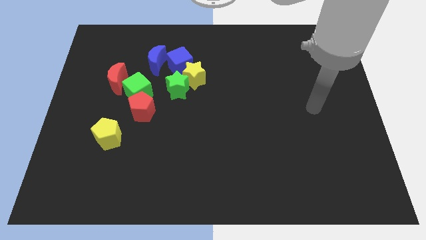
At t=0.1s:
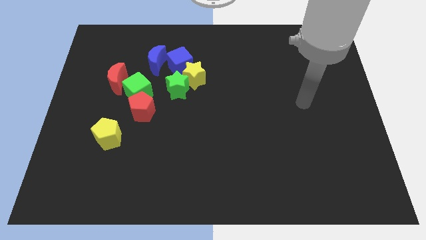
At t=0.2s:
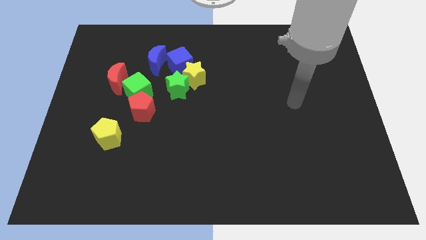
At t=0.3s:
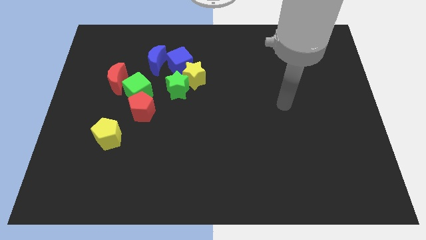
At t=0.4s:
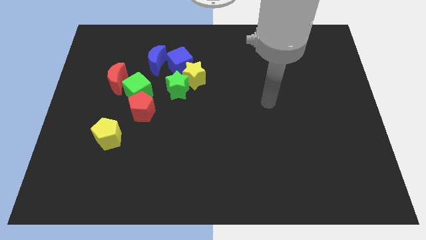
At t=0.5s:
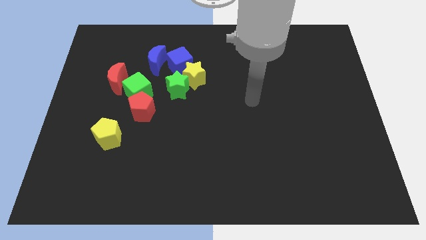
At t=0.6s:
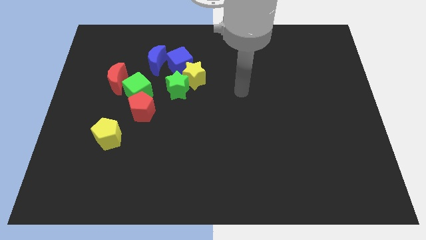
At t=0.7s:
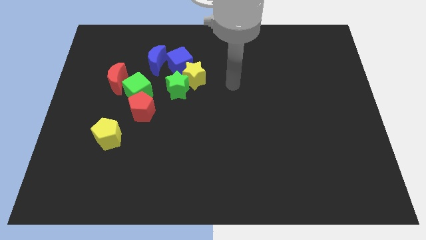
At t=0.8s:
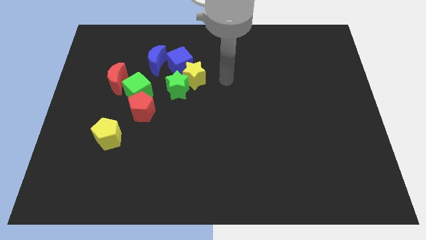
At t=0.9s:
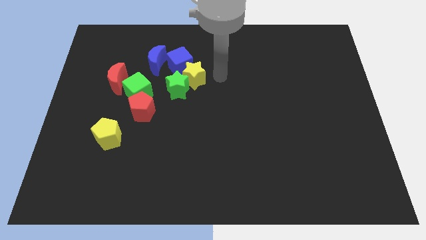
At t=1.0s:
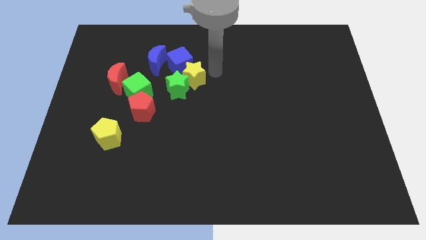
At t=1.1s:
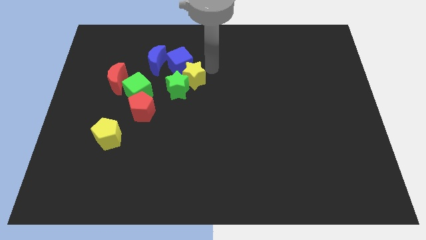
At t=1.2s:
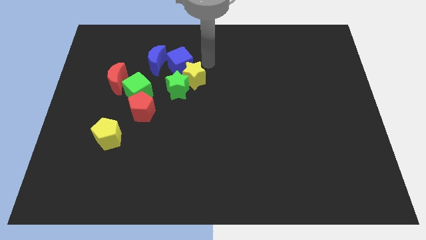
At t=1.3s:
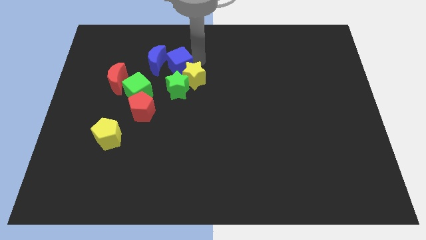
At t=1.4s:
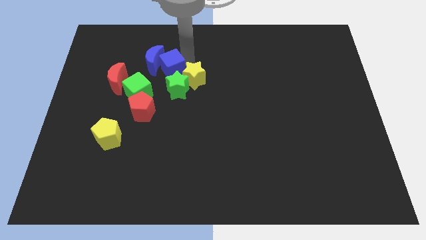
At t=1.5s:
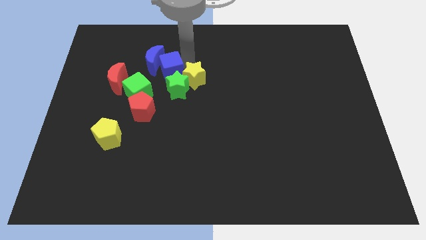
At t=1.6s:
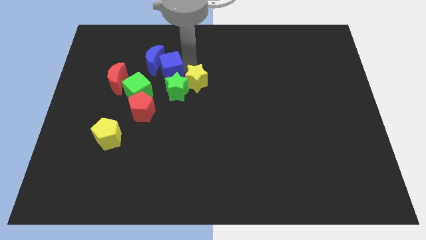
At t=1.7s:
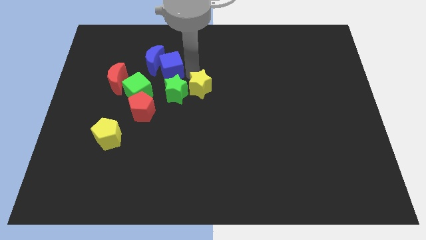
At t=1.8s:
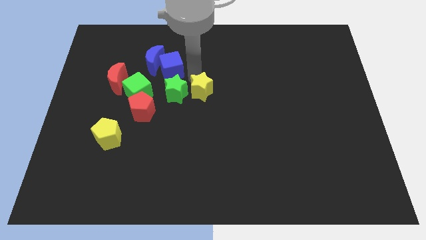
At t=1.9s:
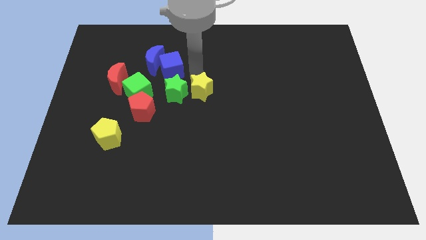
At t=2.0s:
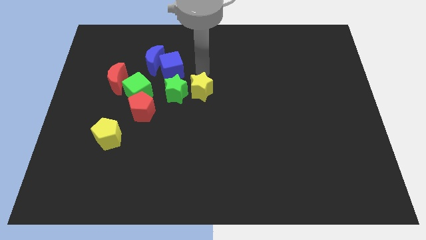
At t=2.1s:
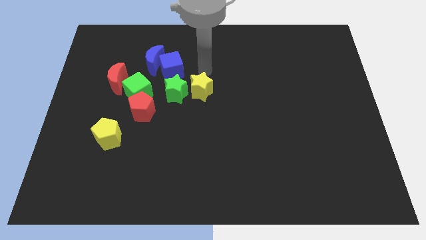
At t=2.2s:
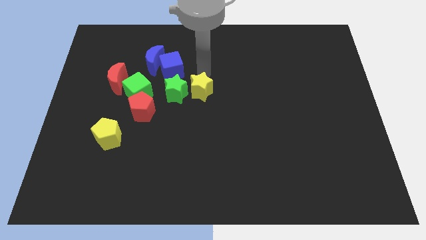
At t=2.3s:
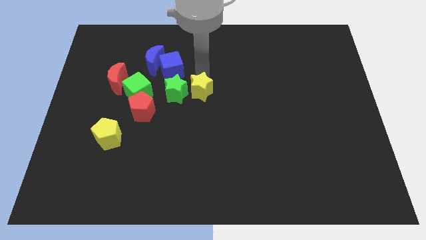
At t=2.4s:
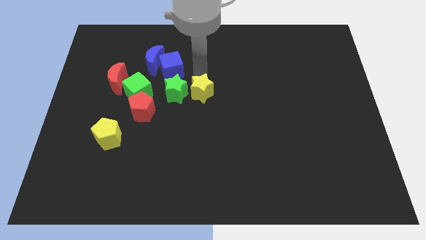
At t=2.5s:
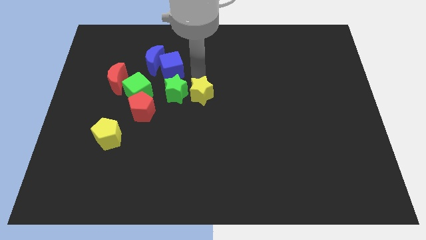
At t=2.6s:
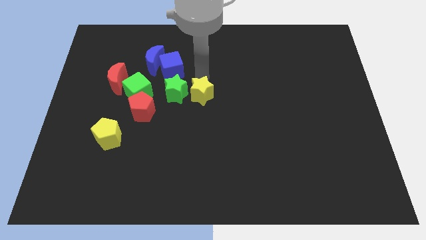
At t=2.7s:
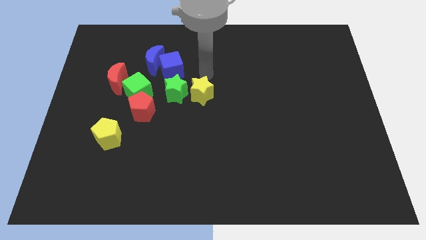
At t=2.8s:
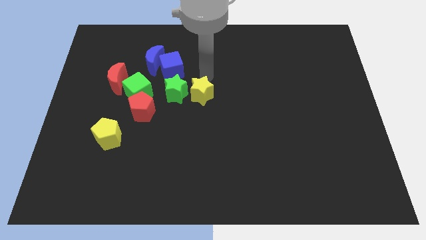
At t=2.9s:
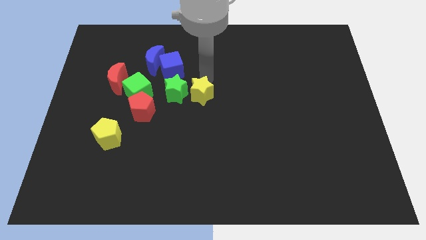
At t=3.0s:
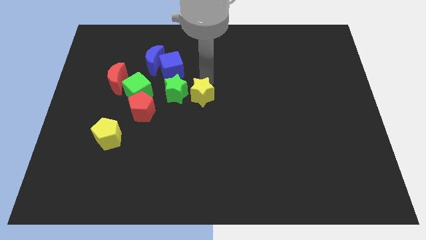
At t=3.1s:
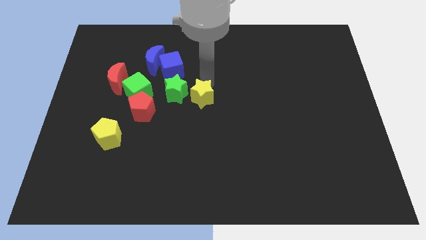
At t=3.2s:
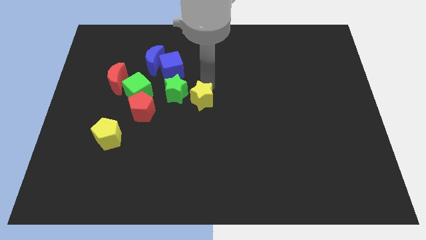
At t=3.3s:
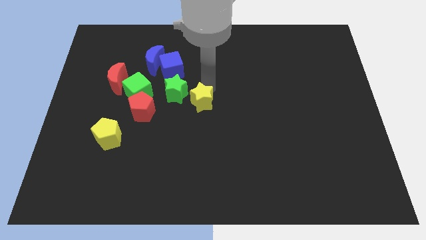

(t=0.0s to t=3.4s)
push the yellow star a little downwards

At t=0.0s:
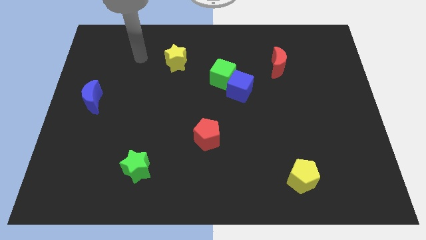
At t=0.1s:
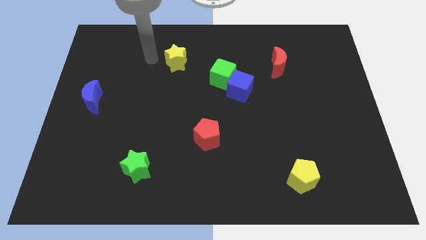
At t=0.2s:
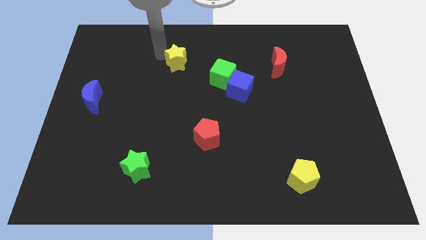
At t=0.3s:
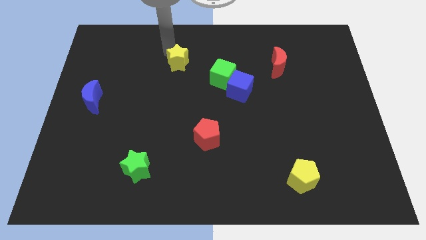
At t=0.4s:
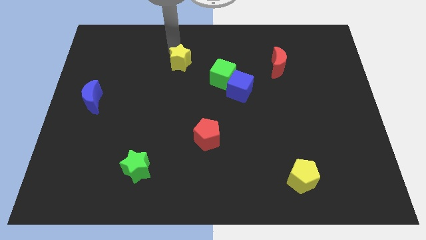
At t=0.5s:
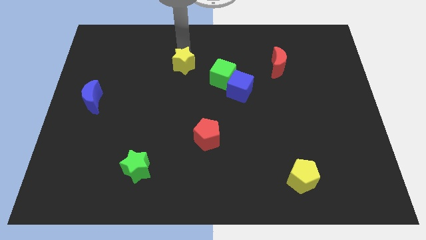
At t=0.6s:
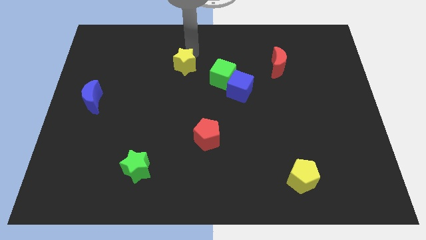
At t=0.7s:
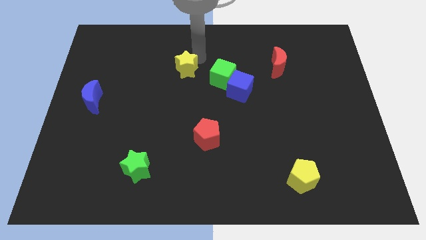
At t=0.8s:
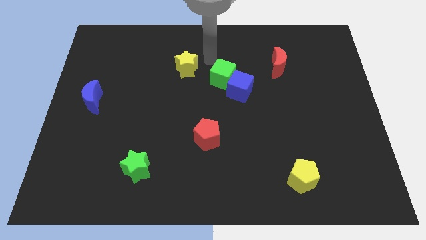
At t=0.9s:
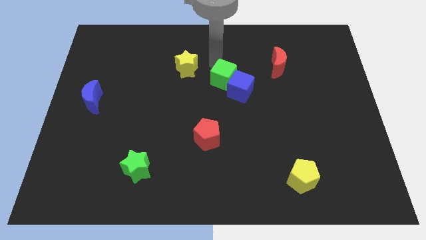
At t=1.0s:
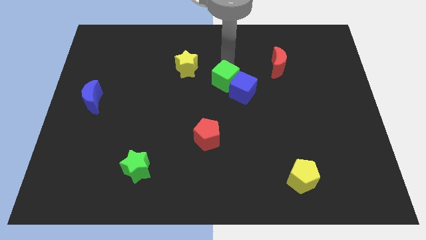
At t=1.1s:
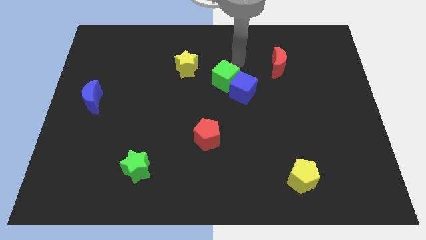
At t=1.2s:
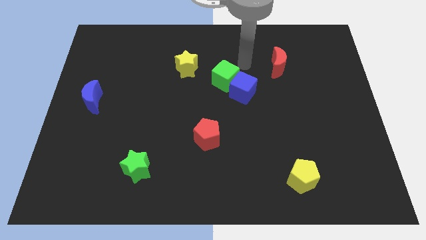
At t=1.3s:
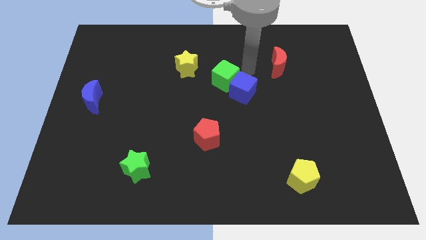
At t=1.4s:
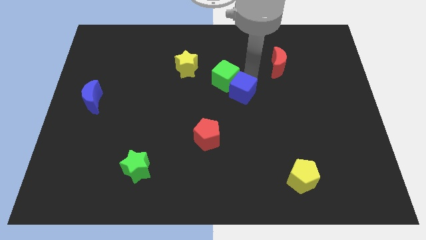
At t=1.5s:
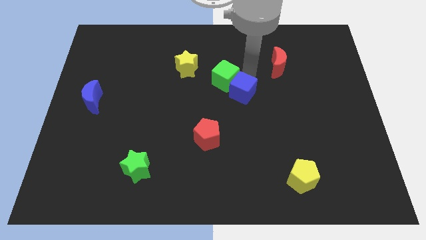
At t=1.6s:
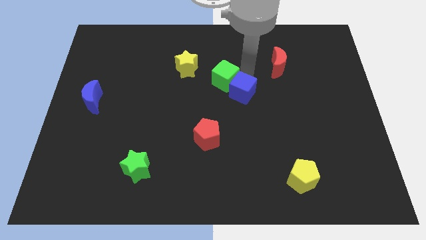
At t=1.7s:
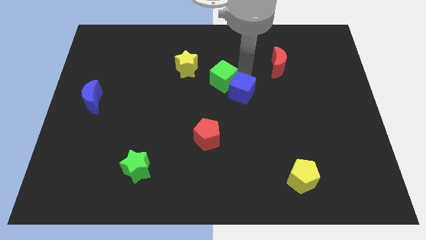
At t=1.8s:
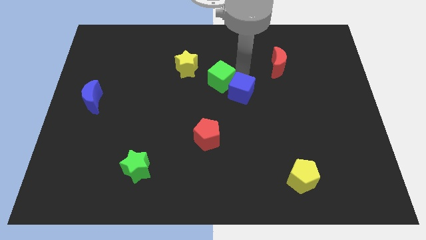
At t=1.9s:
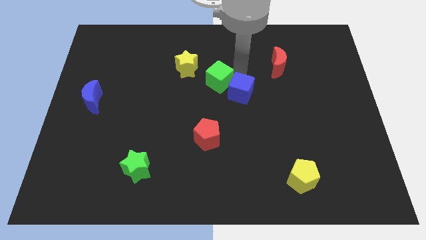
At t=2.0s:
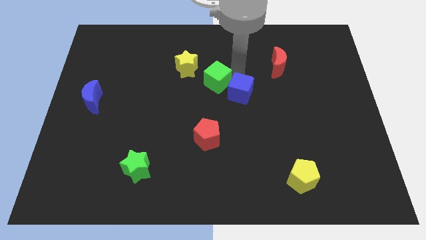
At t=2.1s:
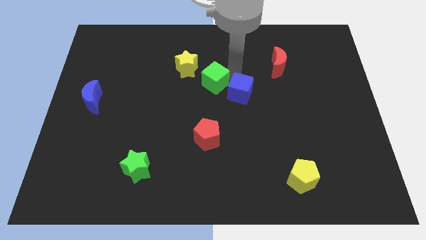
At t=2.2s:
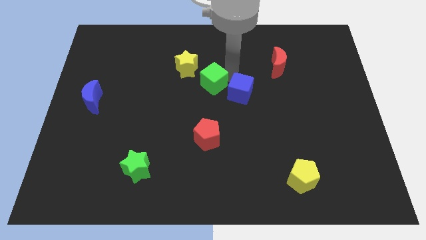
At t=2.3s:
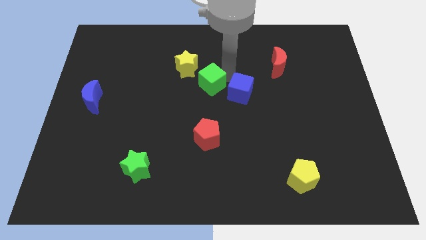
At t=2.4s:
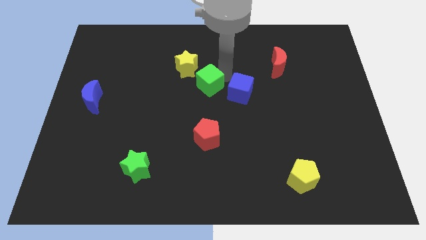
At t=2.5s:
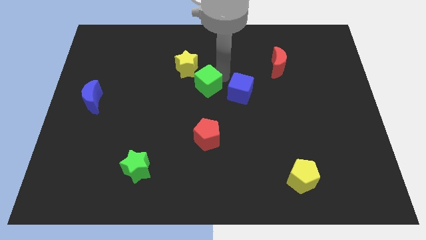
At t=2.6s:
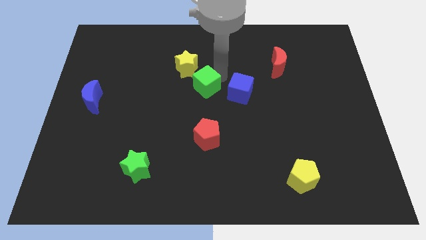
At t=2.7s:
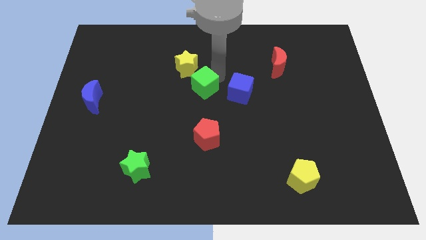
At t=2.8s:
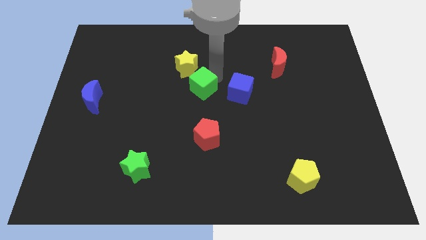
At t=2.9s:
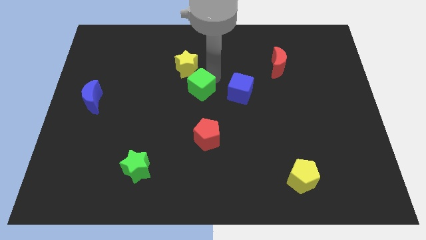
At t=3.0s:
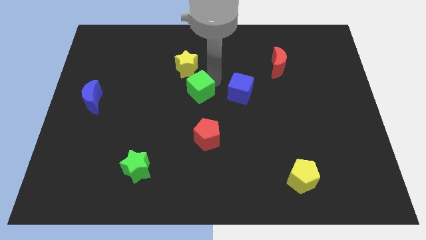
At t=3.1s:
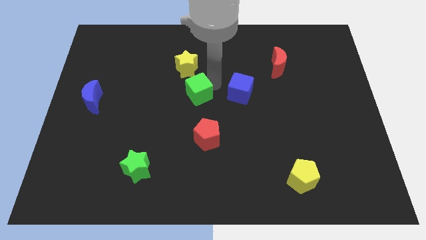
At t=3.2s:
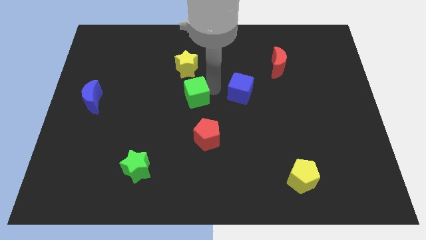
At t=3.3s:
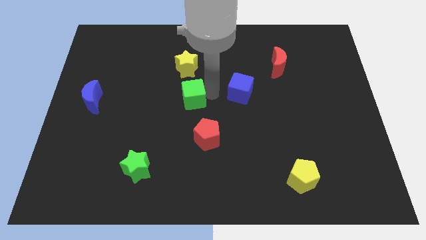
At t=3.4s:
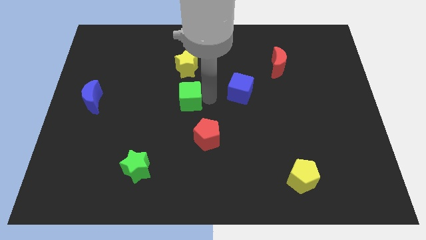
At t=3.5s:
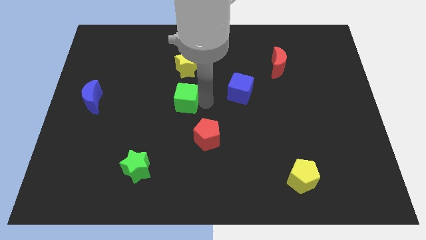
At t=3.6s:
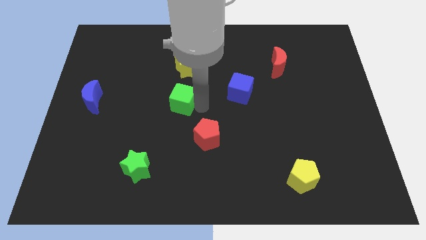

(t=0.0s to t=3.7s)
push the green cube a little bit to the left

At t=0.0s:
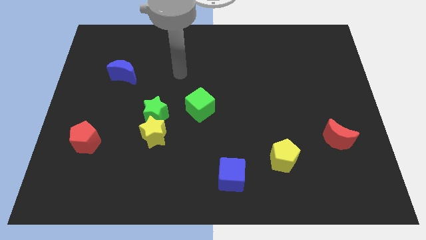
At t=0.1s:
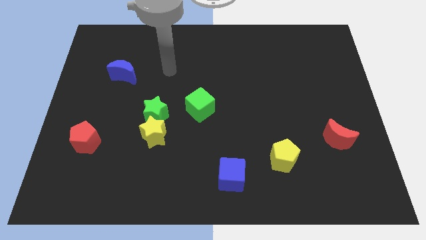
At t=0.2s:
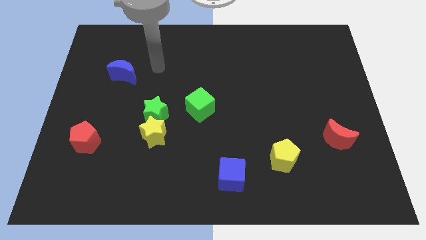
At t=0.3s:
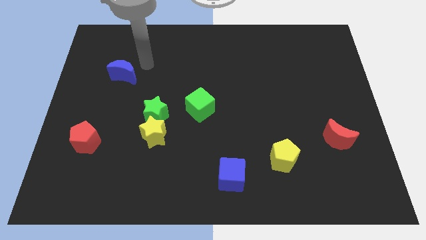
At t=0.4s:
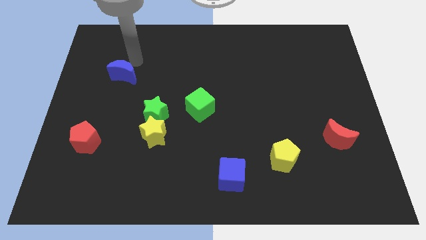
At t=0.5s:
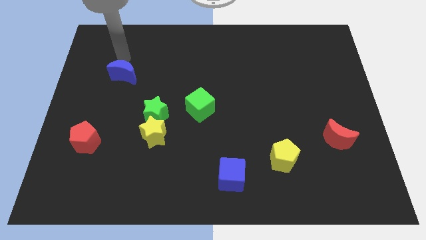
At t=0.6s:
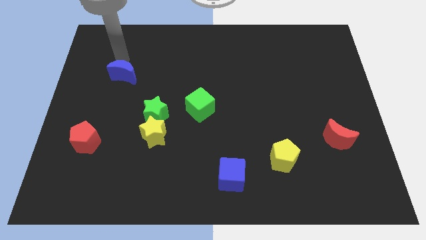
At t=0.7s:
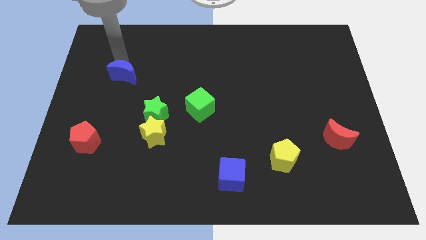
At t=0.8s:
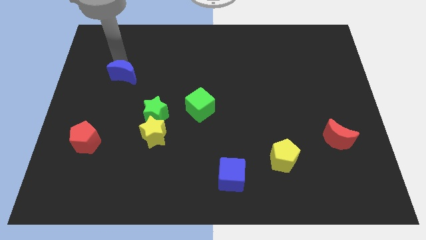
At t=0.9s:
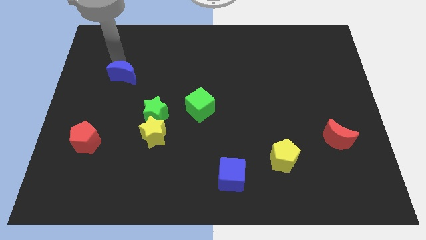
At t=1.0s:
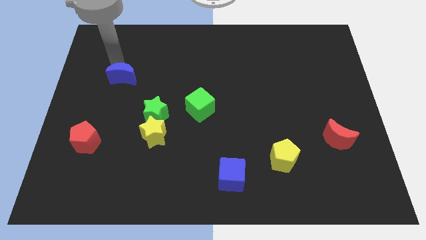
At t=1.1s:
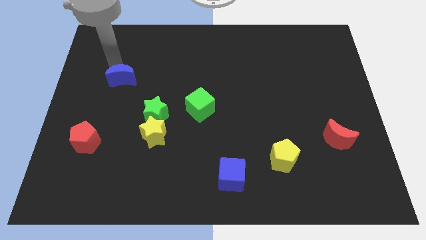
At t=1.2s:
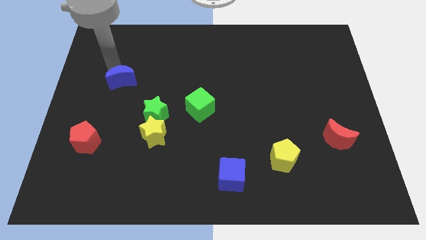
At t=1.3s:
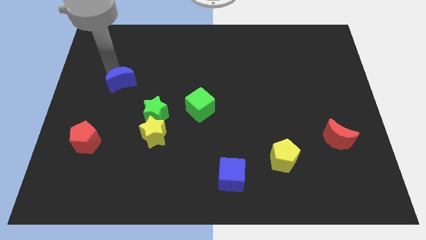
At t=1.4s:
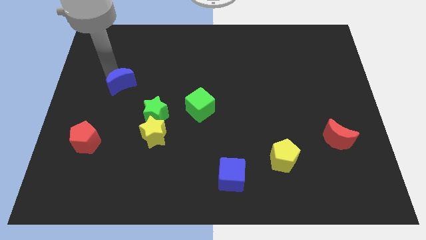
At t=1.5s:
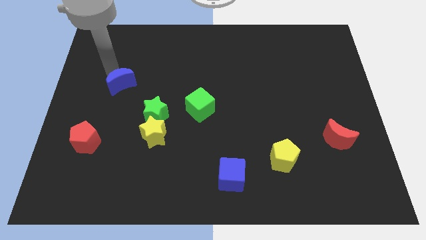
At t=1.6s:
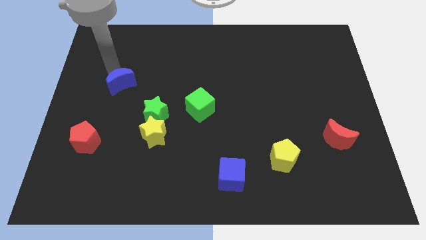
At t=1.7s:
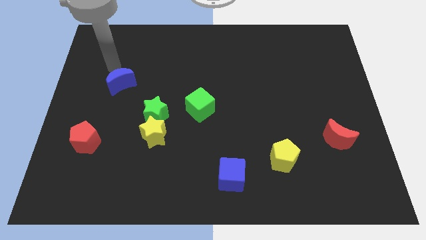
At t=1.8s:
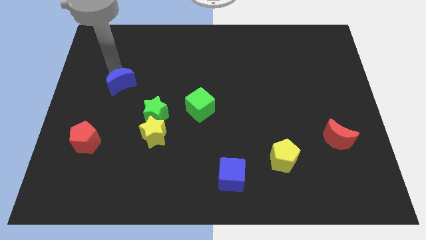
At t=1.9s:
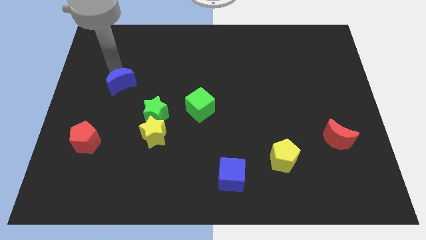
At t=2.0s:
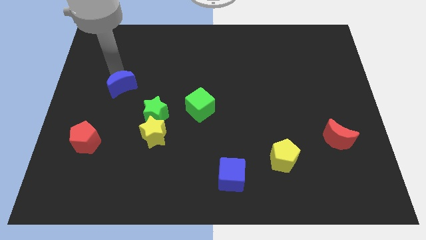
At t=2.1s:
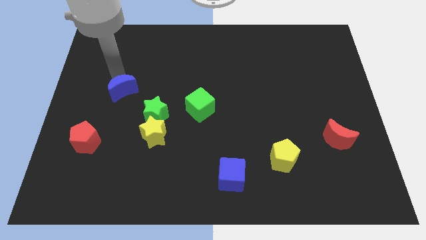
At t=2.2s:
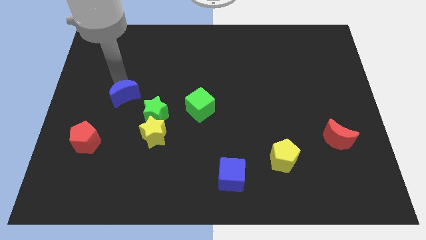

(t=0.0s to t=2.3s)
push the blue moon a bit downwards
